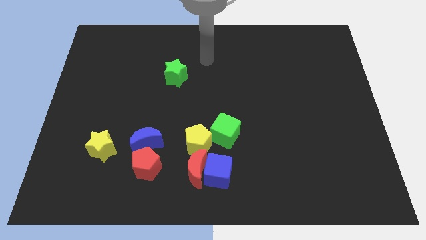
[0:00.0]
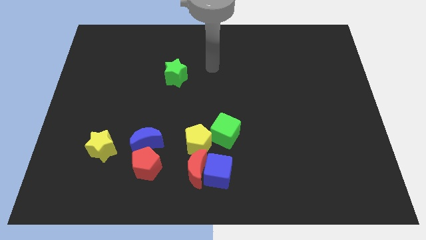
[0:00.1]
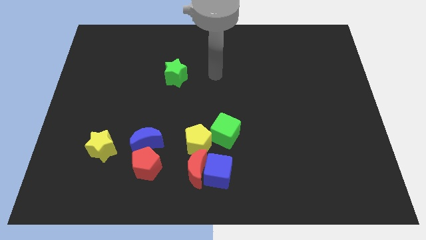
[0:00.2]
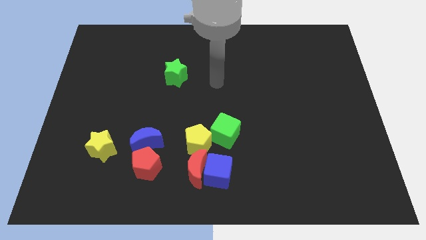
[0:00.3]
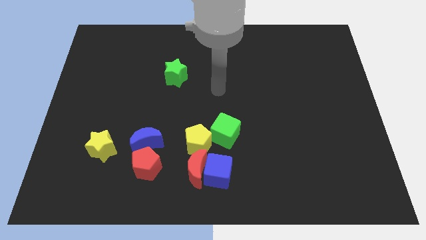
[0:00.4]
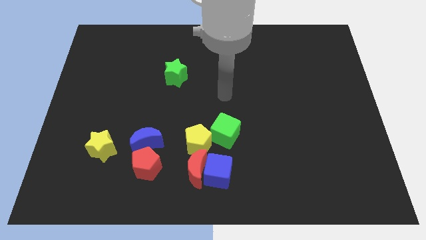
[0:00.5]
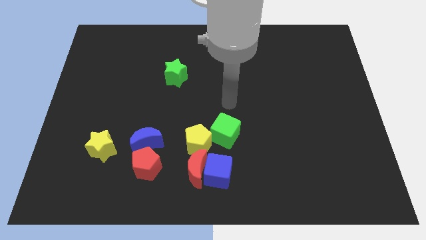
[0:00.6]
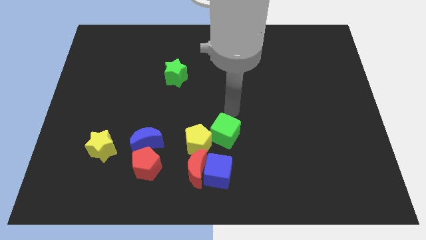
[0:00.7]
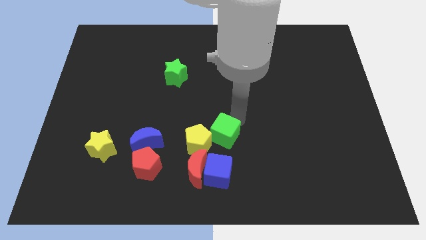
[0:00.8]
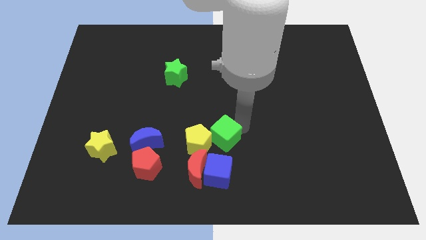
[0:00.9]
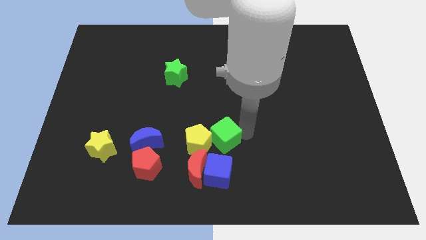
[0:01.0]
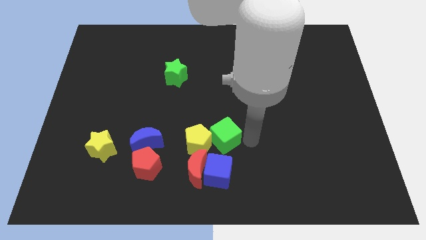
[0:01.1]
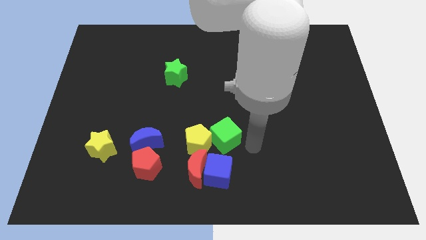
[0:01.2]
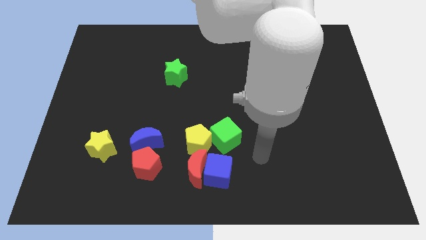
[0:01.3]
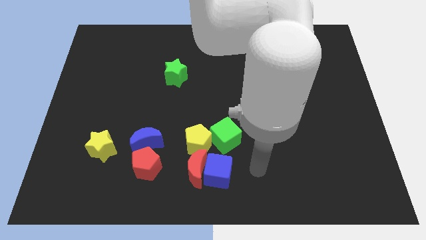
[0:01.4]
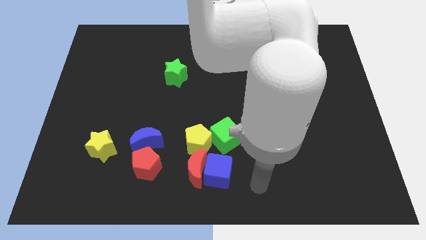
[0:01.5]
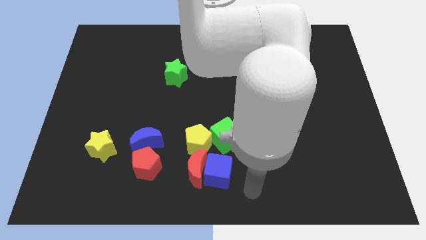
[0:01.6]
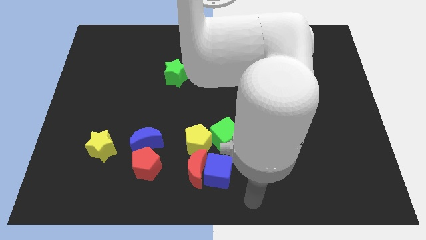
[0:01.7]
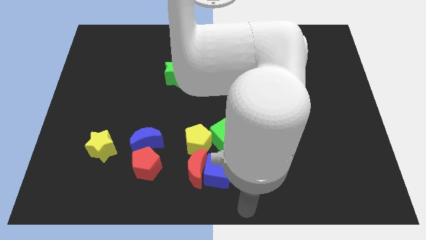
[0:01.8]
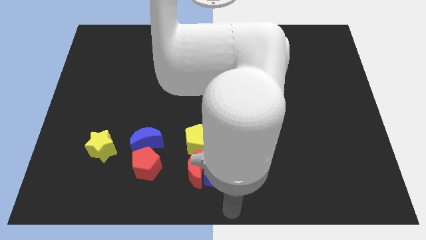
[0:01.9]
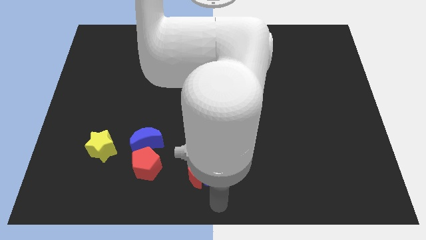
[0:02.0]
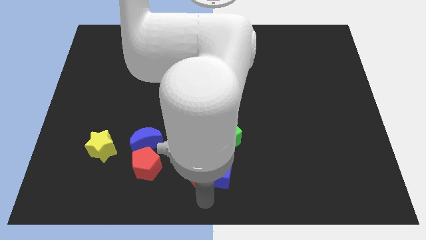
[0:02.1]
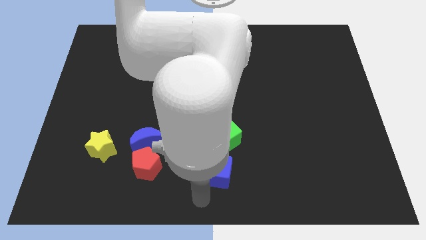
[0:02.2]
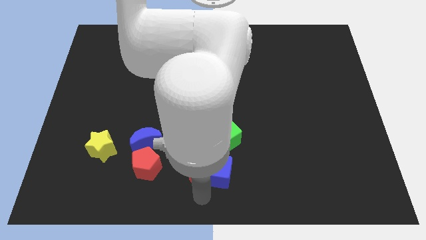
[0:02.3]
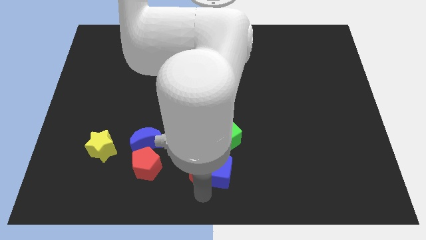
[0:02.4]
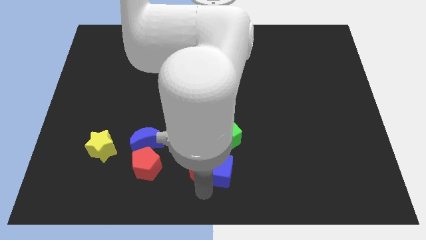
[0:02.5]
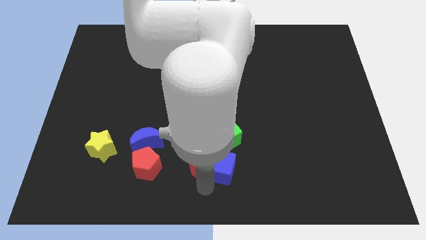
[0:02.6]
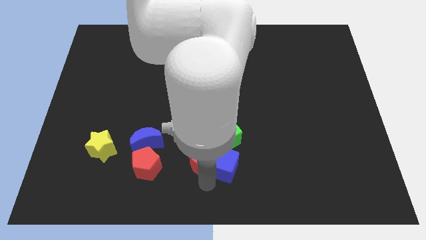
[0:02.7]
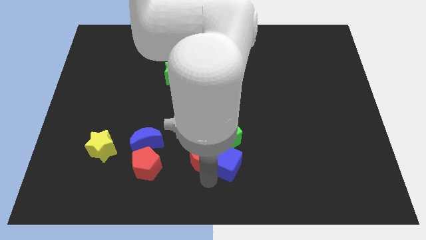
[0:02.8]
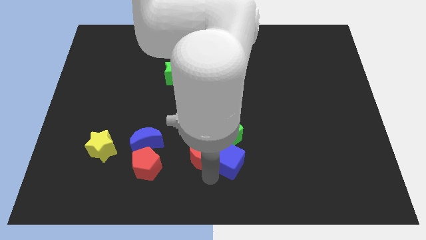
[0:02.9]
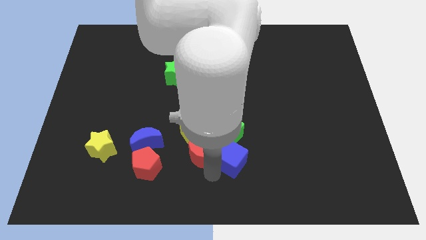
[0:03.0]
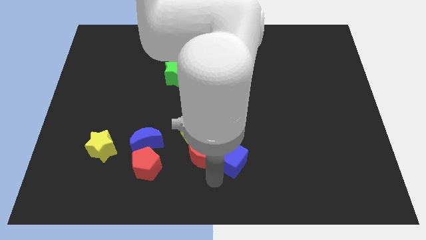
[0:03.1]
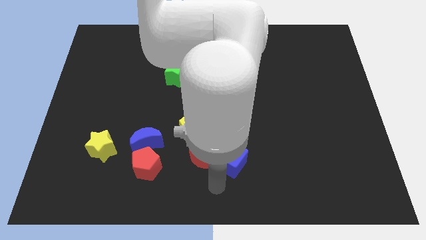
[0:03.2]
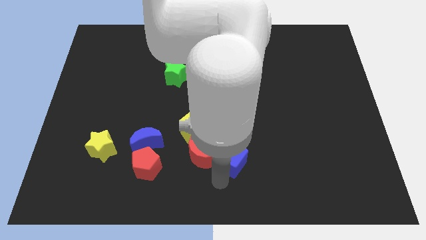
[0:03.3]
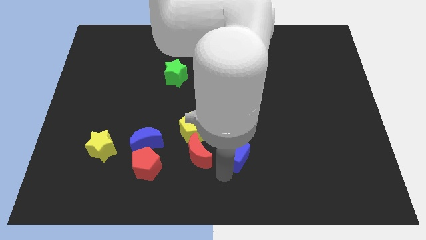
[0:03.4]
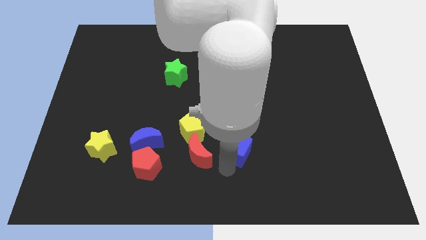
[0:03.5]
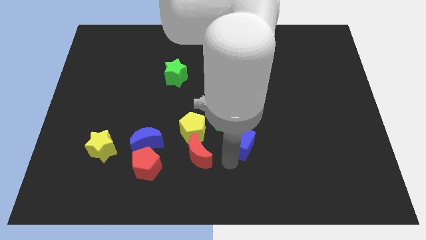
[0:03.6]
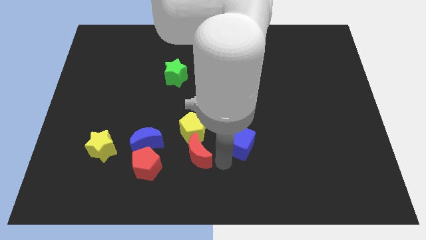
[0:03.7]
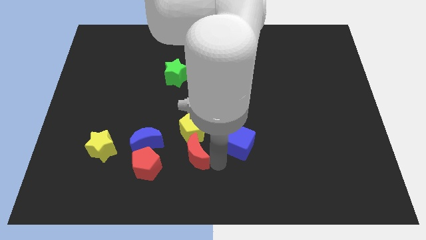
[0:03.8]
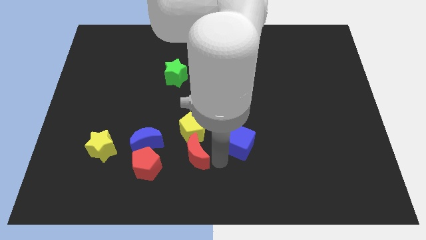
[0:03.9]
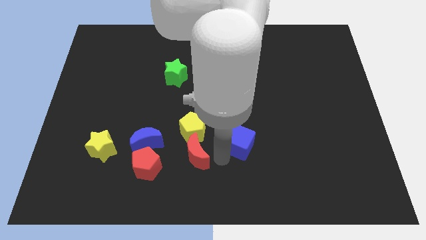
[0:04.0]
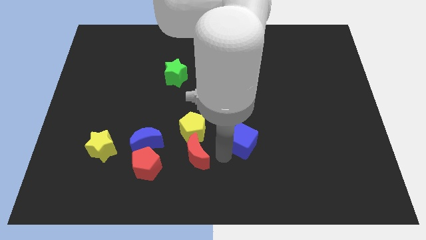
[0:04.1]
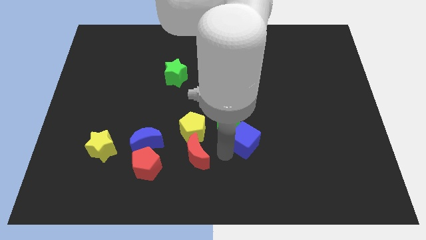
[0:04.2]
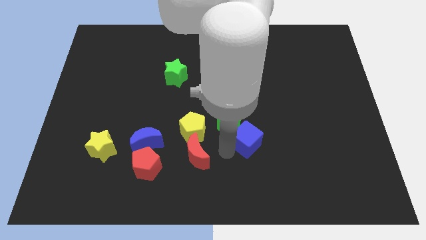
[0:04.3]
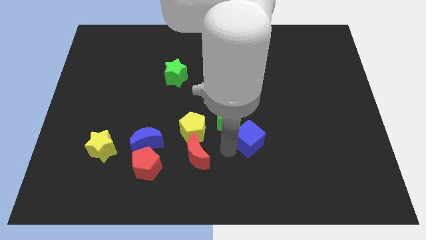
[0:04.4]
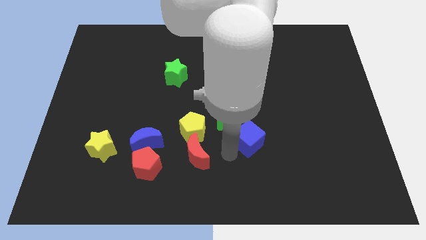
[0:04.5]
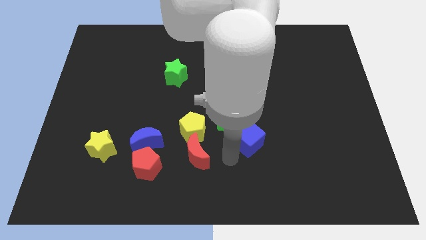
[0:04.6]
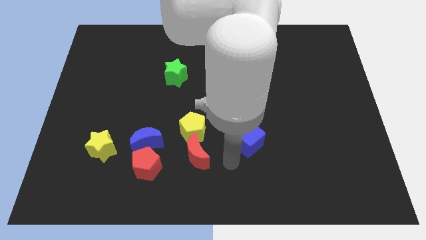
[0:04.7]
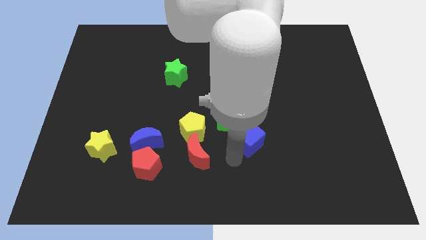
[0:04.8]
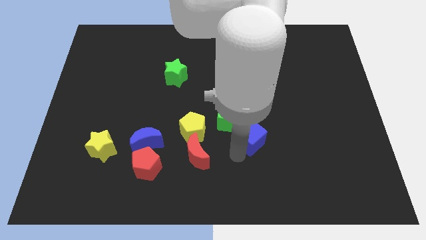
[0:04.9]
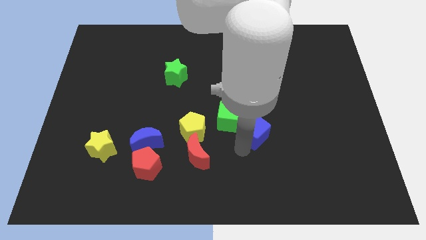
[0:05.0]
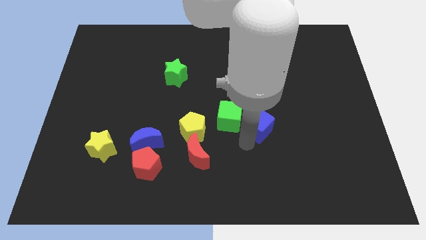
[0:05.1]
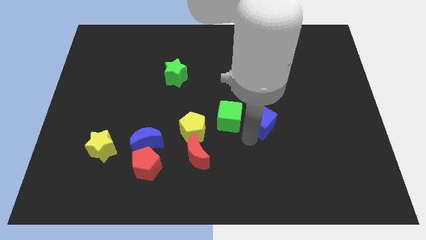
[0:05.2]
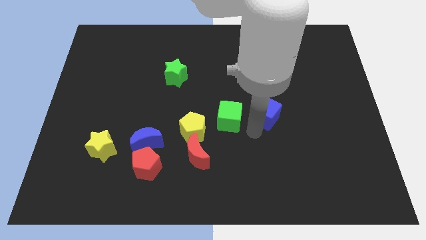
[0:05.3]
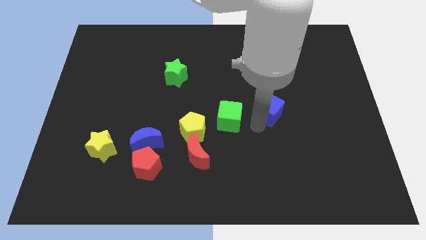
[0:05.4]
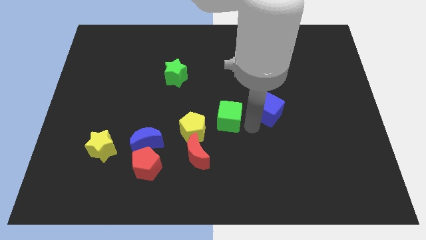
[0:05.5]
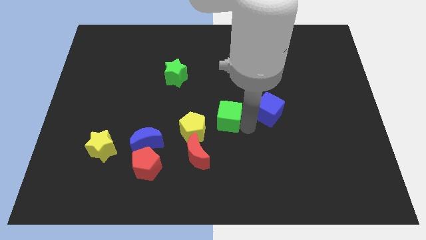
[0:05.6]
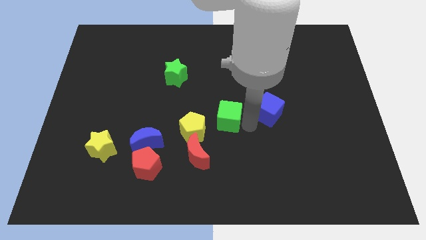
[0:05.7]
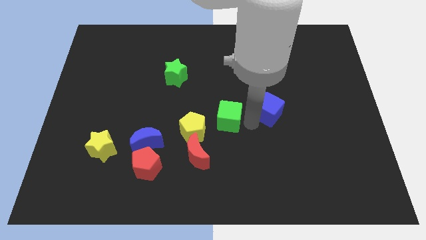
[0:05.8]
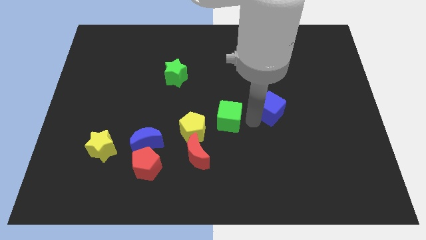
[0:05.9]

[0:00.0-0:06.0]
push the blue cube diagonally upwards and right

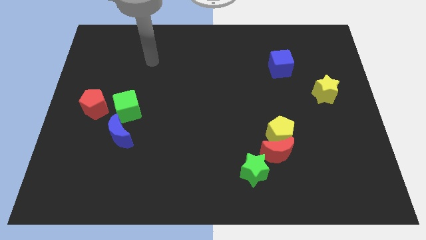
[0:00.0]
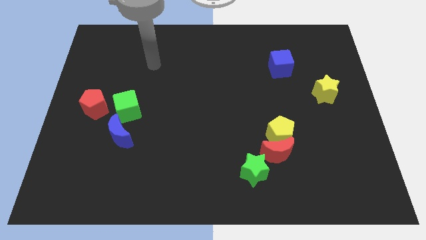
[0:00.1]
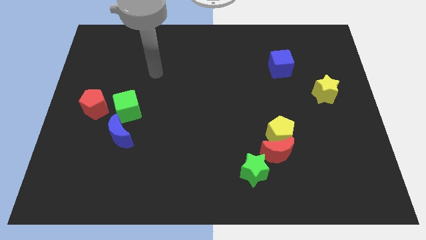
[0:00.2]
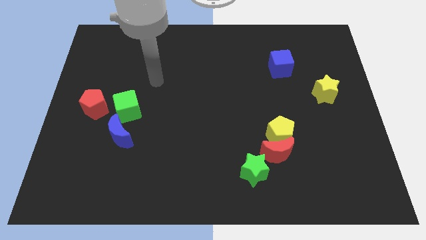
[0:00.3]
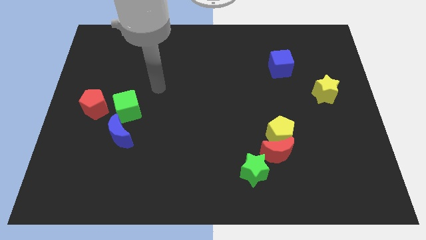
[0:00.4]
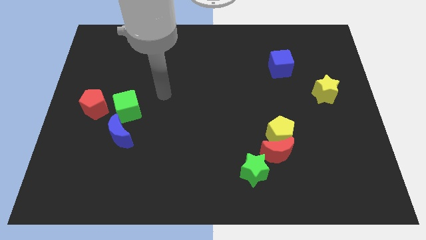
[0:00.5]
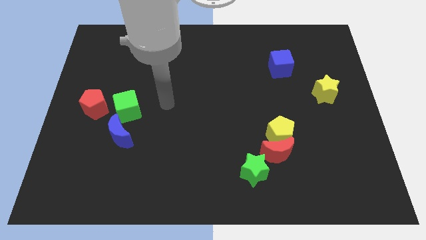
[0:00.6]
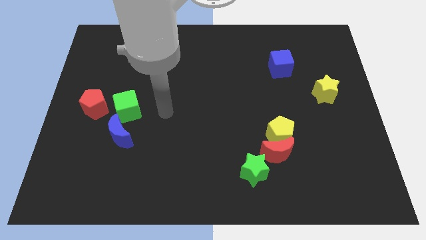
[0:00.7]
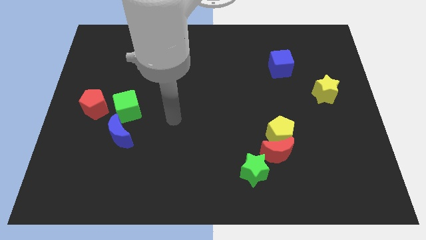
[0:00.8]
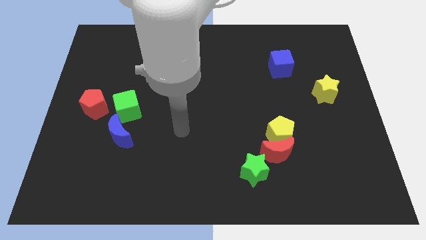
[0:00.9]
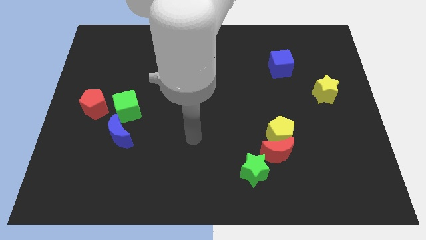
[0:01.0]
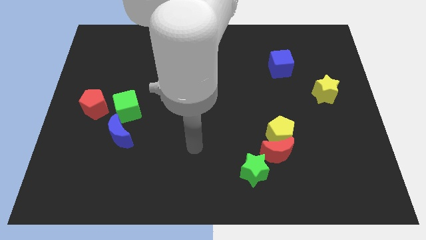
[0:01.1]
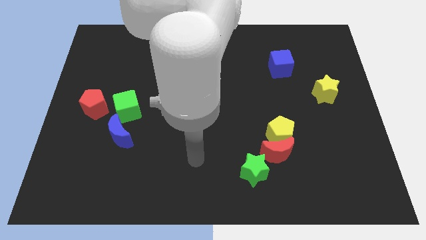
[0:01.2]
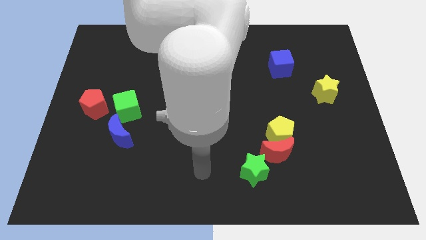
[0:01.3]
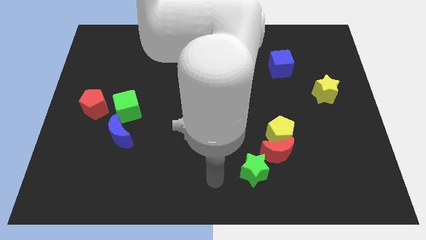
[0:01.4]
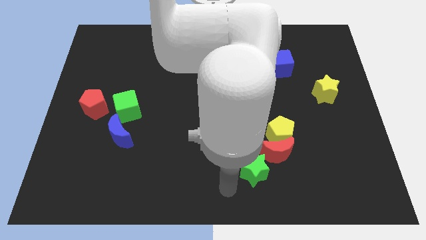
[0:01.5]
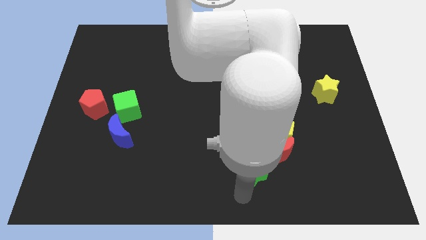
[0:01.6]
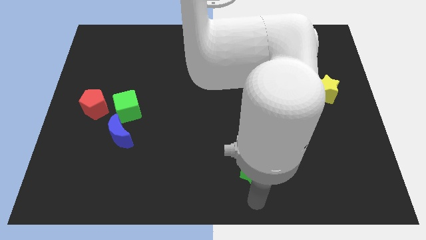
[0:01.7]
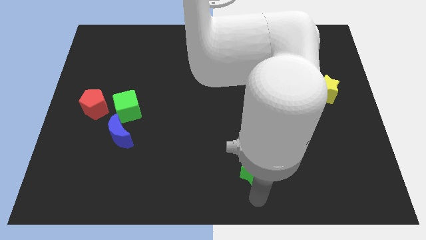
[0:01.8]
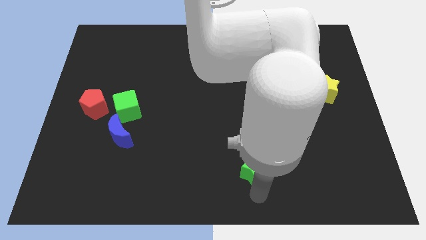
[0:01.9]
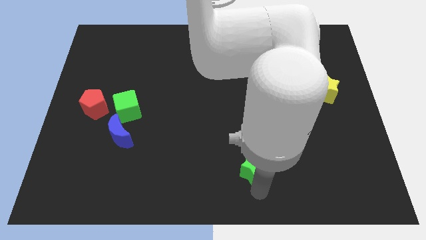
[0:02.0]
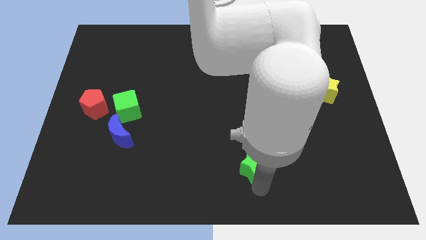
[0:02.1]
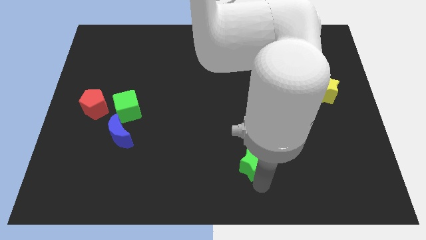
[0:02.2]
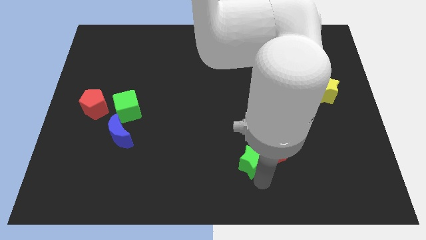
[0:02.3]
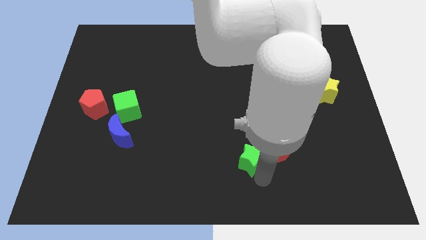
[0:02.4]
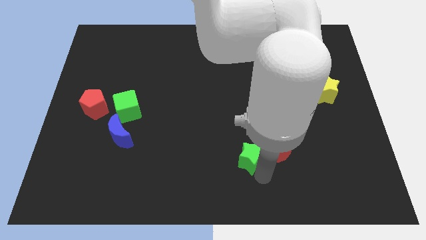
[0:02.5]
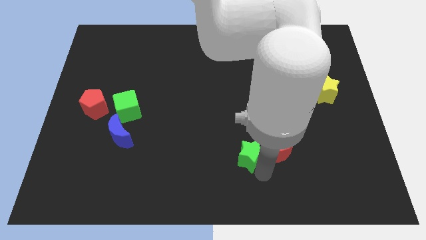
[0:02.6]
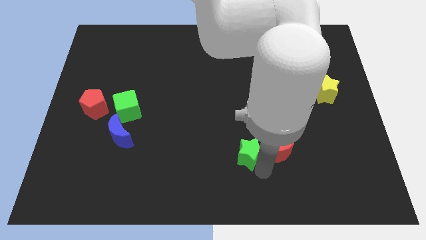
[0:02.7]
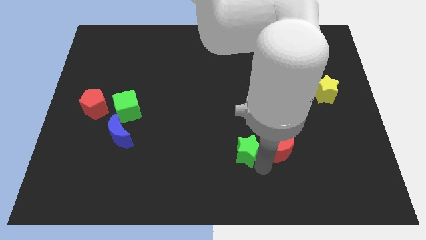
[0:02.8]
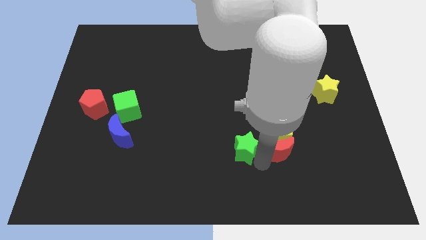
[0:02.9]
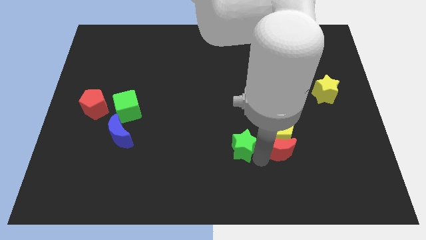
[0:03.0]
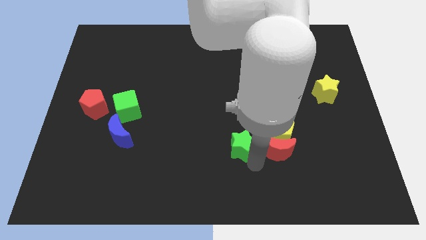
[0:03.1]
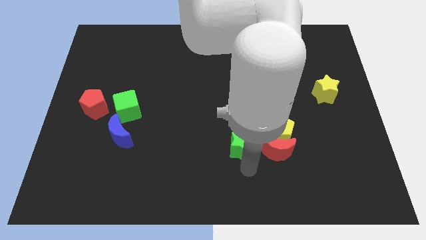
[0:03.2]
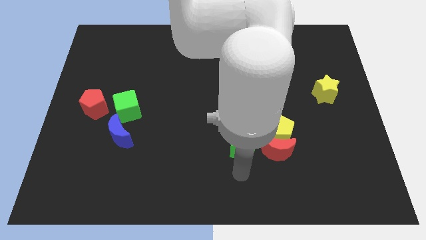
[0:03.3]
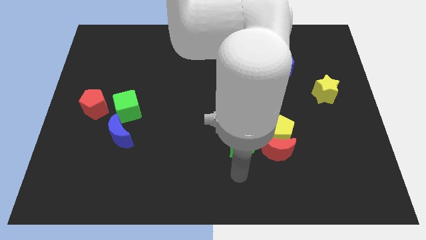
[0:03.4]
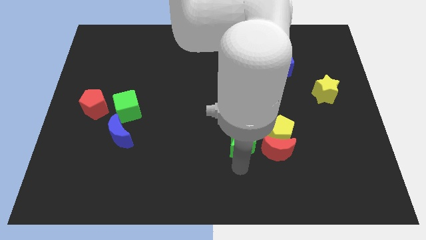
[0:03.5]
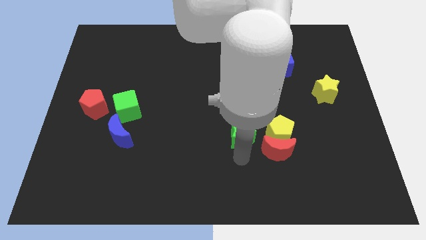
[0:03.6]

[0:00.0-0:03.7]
slide the green star up a little
